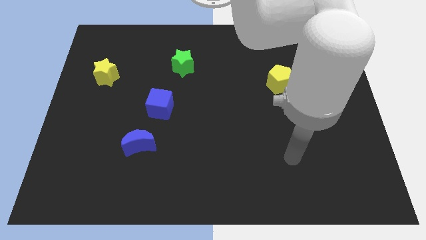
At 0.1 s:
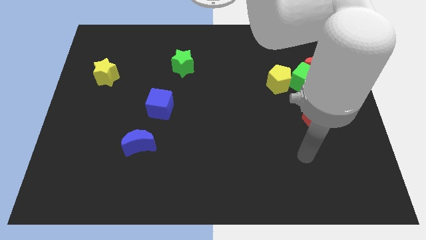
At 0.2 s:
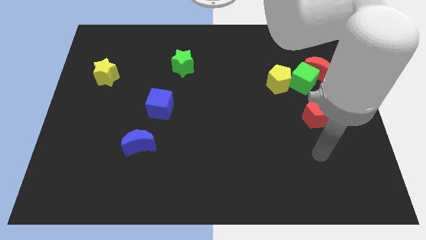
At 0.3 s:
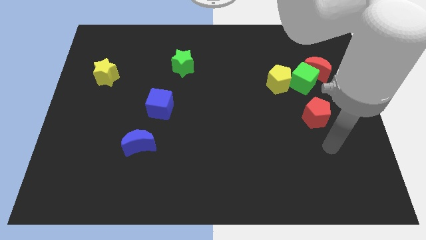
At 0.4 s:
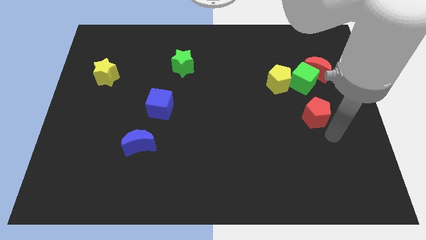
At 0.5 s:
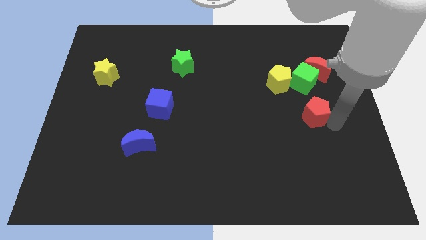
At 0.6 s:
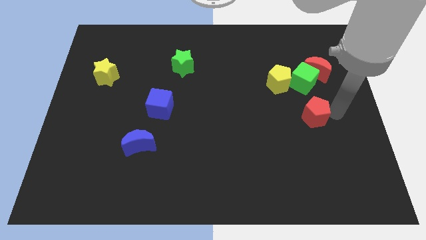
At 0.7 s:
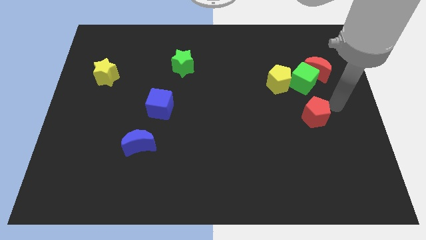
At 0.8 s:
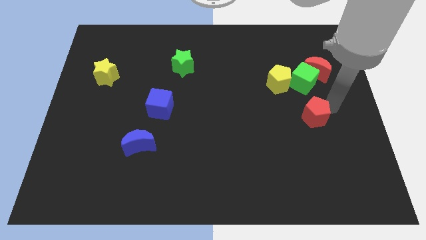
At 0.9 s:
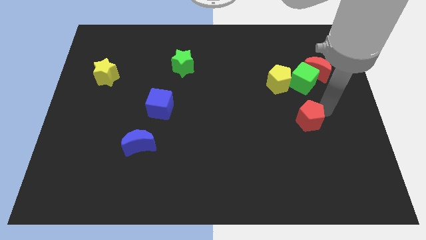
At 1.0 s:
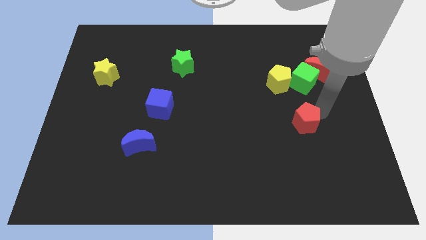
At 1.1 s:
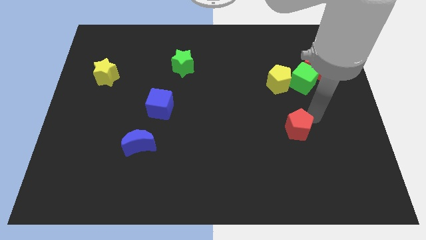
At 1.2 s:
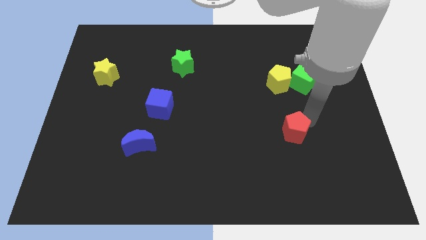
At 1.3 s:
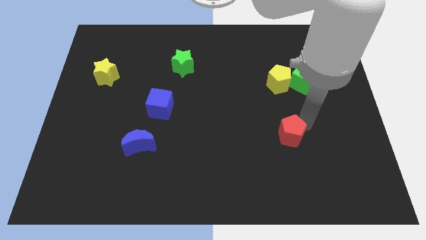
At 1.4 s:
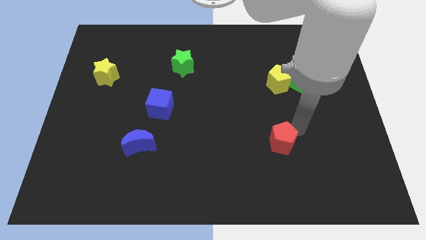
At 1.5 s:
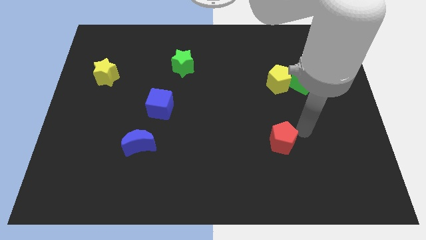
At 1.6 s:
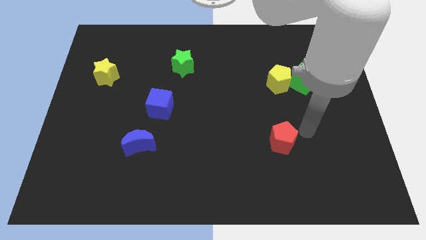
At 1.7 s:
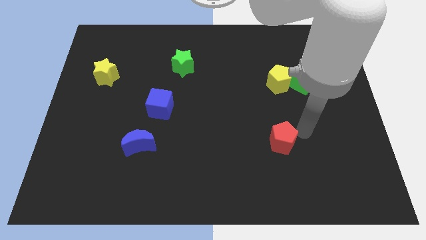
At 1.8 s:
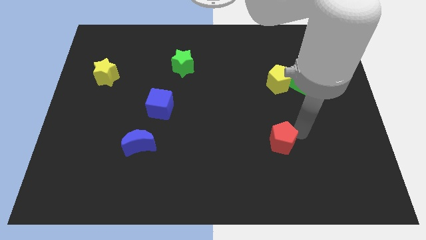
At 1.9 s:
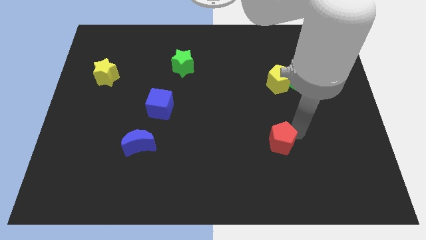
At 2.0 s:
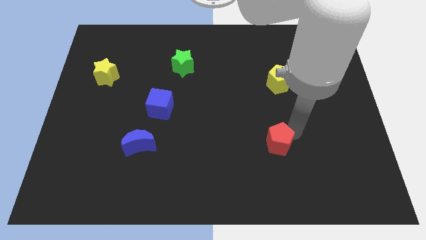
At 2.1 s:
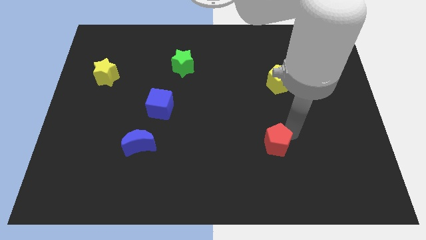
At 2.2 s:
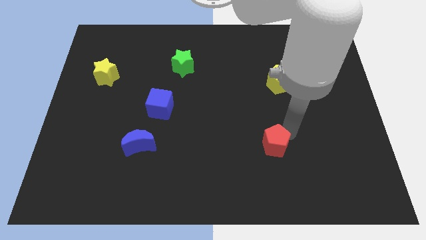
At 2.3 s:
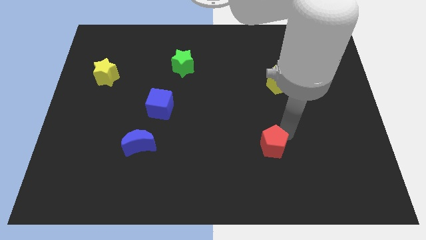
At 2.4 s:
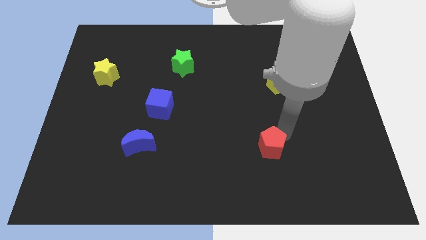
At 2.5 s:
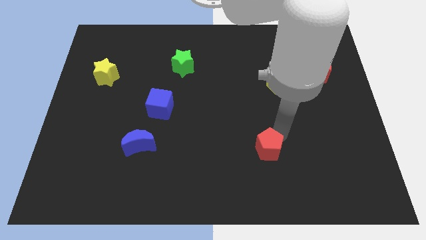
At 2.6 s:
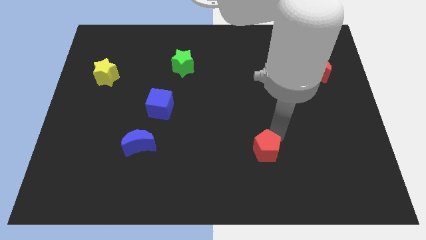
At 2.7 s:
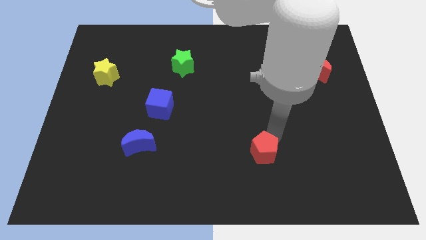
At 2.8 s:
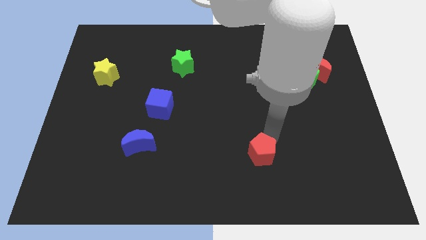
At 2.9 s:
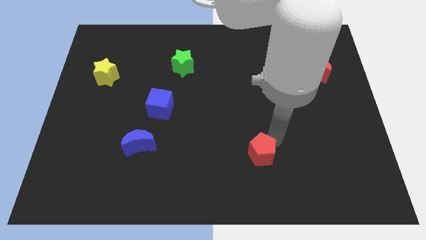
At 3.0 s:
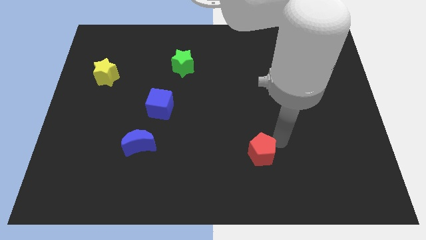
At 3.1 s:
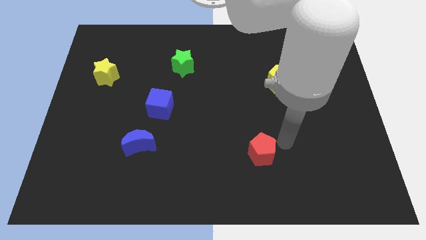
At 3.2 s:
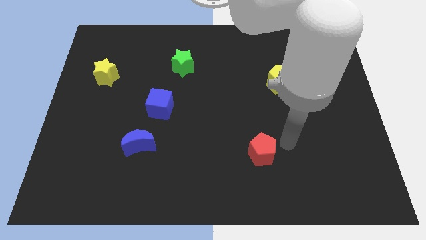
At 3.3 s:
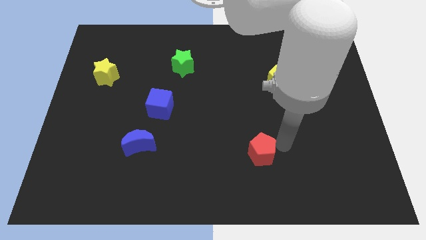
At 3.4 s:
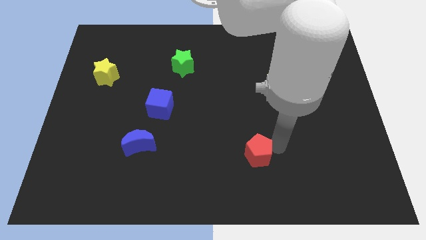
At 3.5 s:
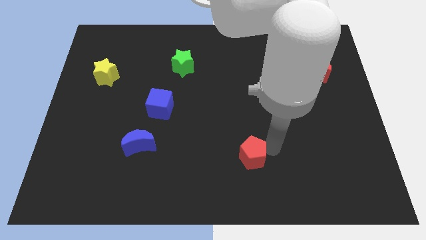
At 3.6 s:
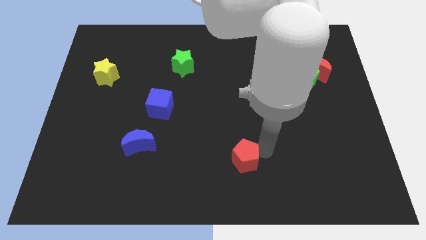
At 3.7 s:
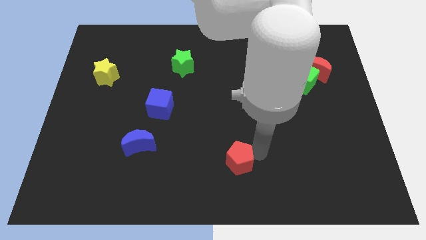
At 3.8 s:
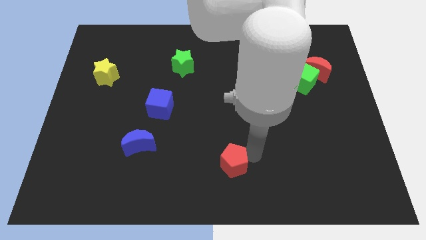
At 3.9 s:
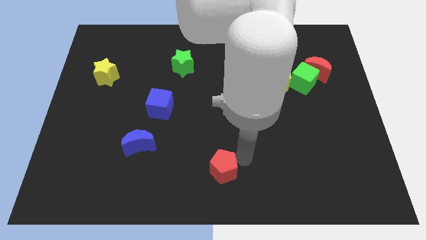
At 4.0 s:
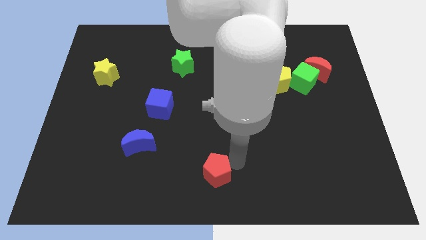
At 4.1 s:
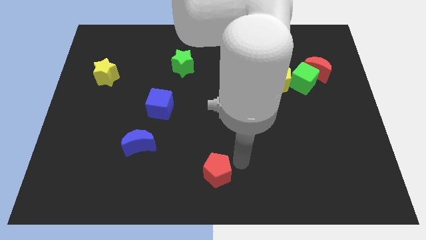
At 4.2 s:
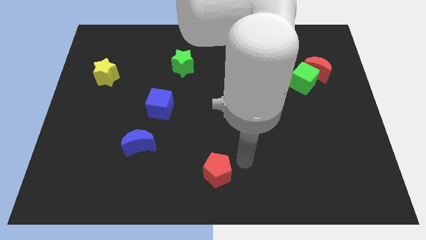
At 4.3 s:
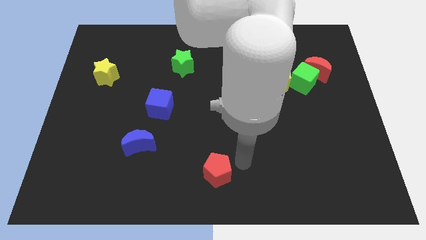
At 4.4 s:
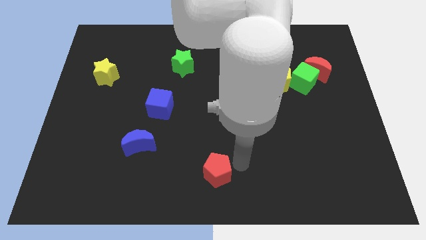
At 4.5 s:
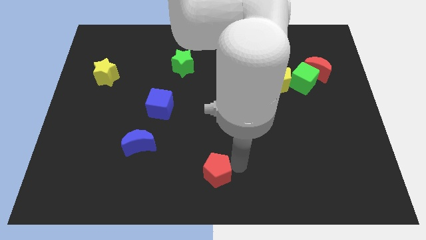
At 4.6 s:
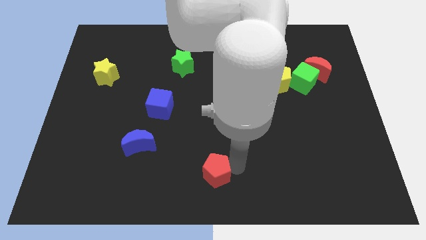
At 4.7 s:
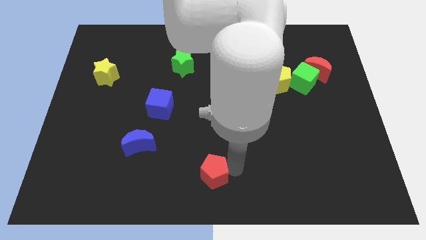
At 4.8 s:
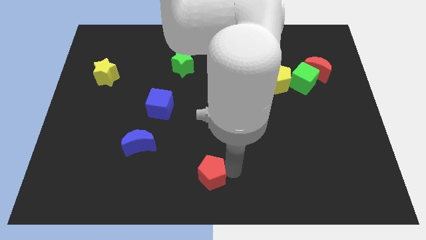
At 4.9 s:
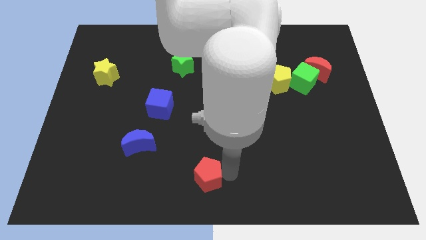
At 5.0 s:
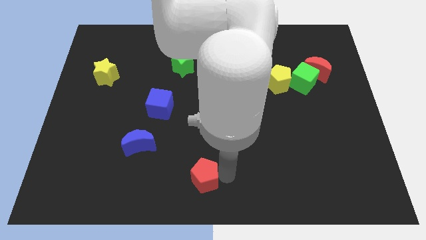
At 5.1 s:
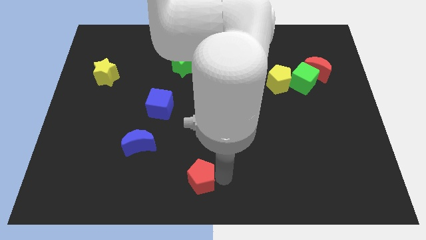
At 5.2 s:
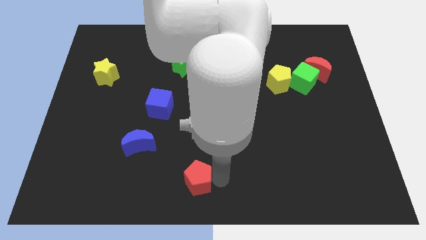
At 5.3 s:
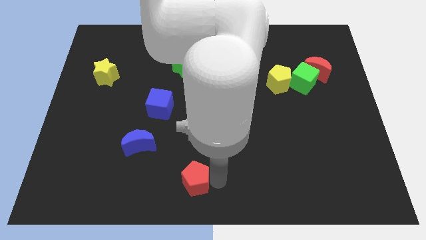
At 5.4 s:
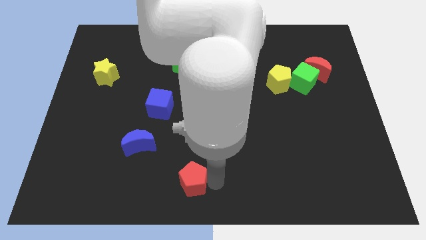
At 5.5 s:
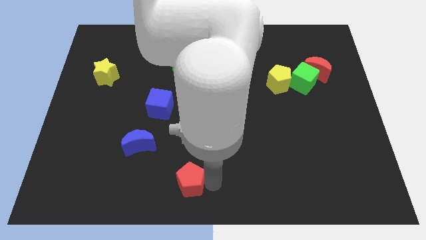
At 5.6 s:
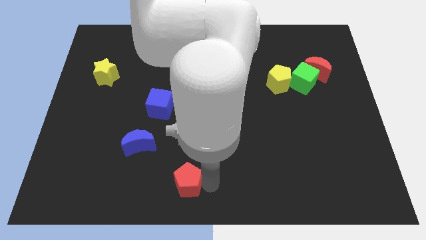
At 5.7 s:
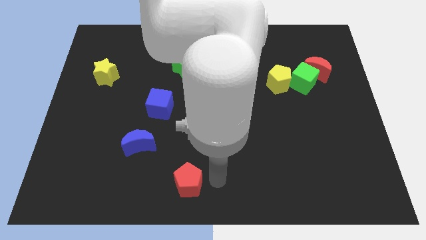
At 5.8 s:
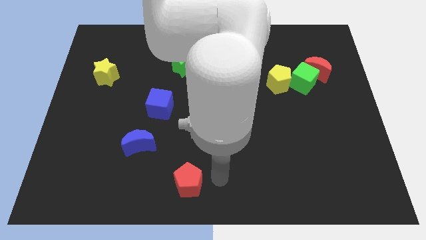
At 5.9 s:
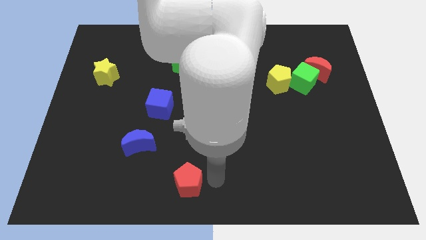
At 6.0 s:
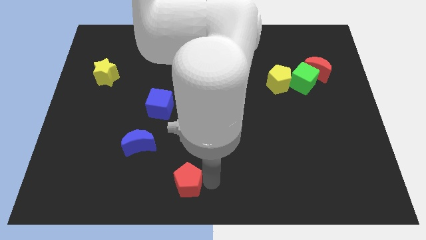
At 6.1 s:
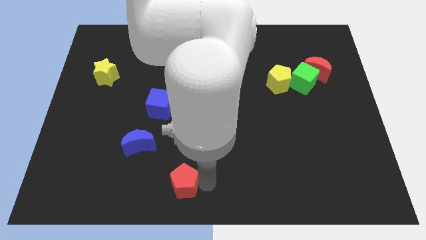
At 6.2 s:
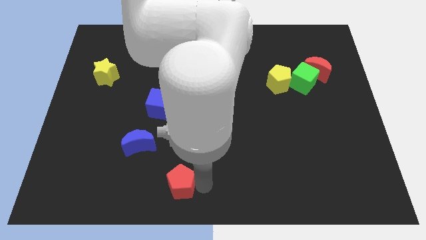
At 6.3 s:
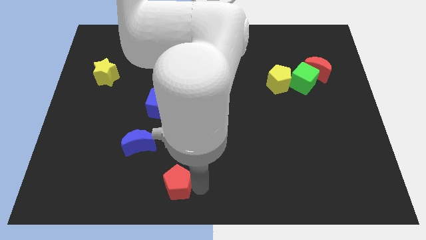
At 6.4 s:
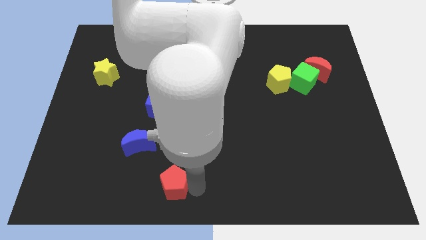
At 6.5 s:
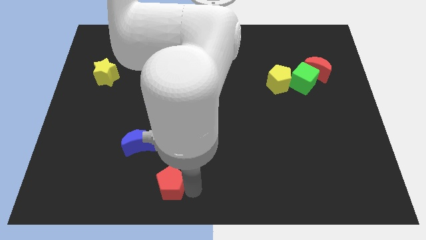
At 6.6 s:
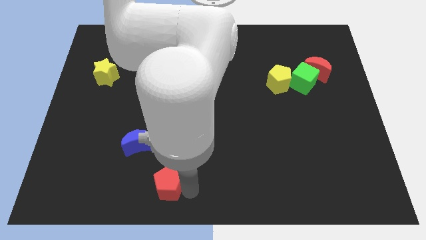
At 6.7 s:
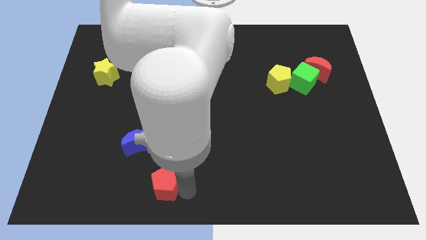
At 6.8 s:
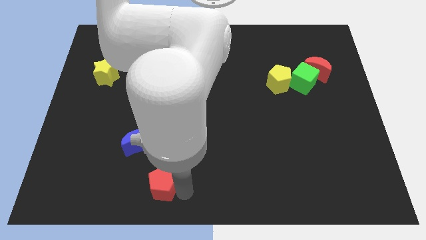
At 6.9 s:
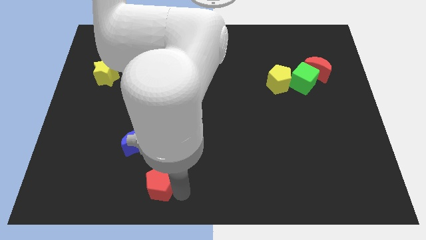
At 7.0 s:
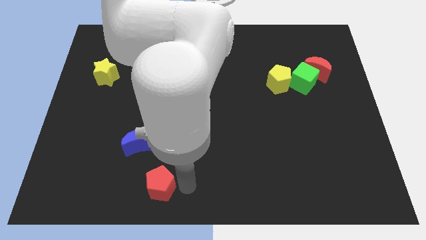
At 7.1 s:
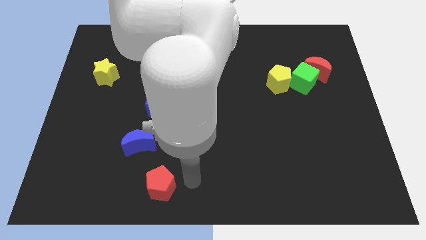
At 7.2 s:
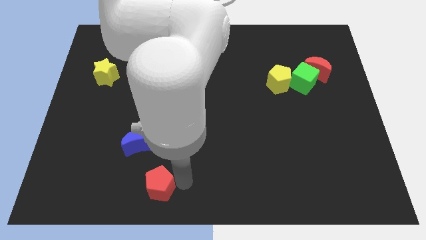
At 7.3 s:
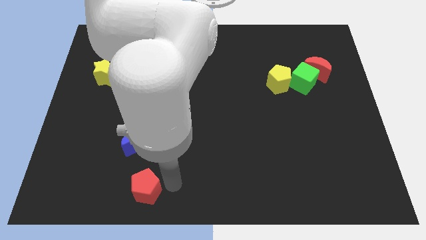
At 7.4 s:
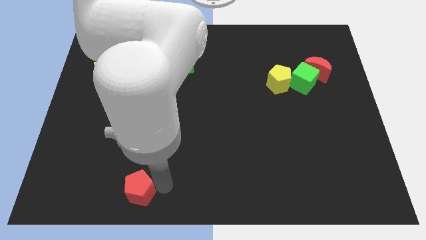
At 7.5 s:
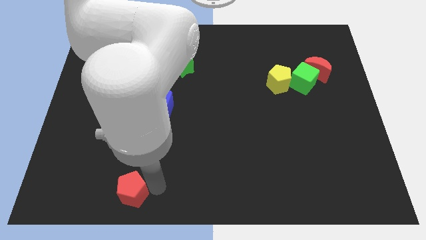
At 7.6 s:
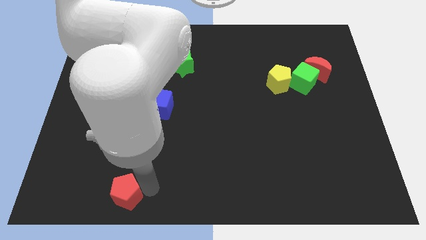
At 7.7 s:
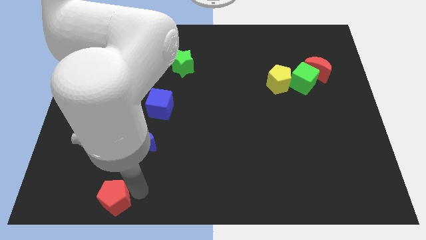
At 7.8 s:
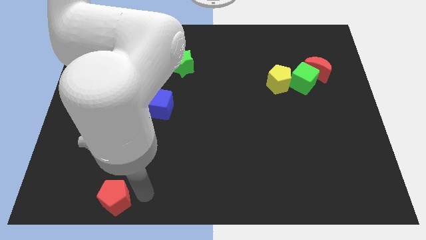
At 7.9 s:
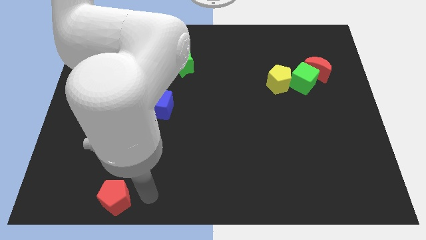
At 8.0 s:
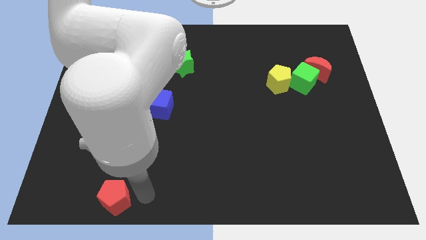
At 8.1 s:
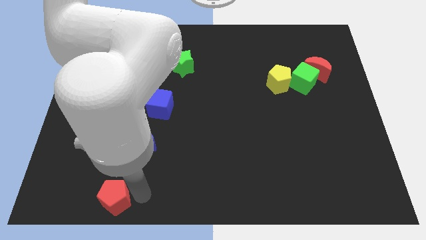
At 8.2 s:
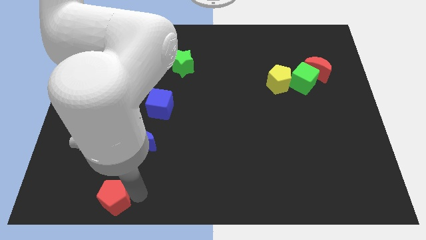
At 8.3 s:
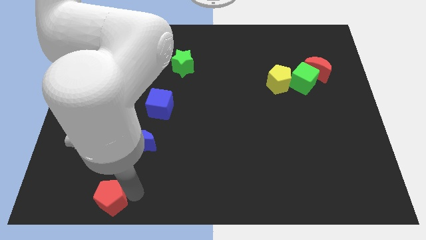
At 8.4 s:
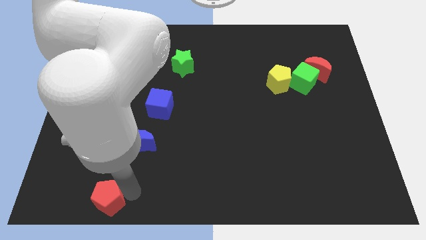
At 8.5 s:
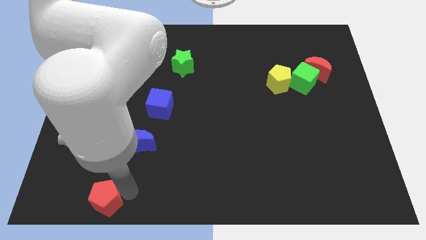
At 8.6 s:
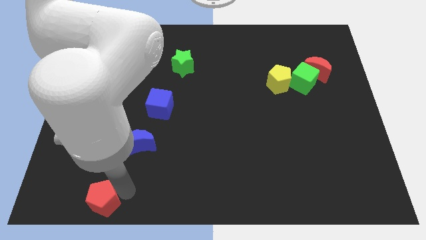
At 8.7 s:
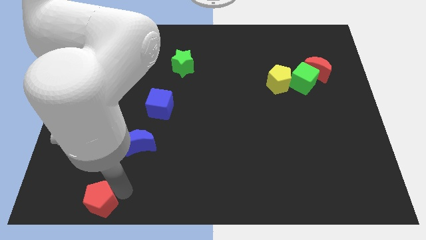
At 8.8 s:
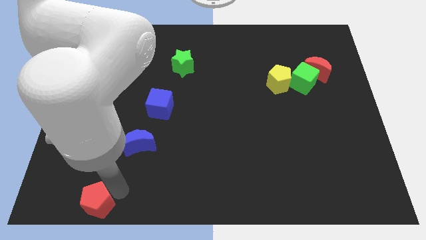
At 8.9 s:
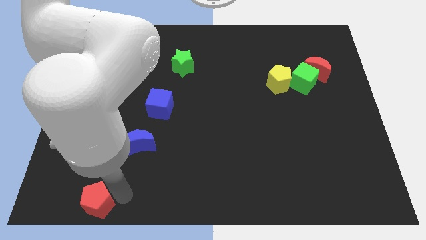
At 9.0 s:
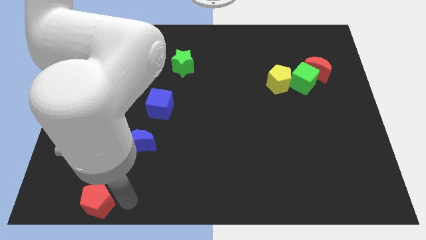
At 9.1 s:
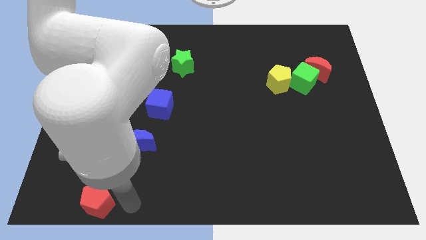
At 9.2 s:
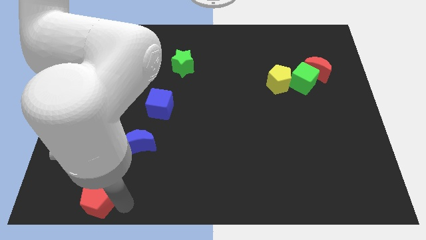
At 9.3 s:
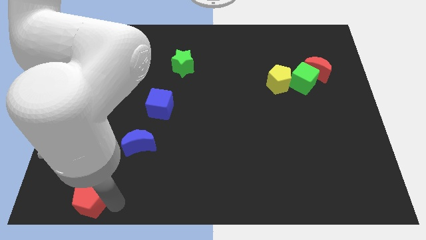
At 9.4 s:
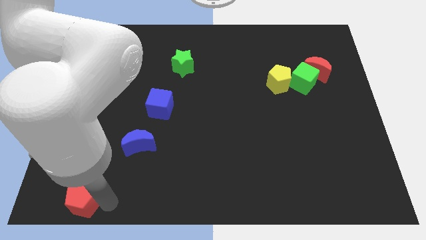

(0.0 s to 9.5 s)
move the red pentagon to the lower left corner
